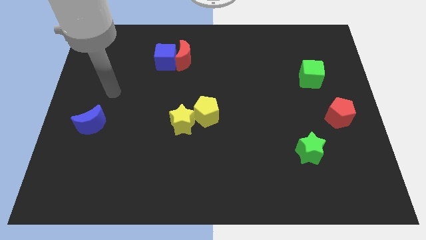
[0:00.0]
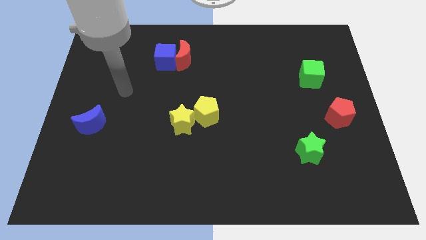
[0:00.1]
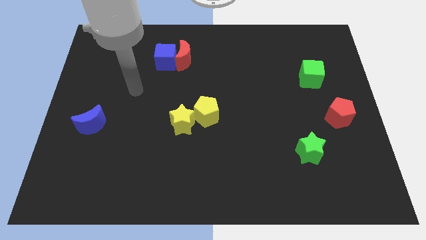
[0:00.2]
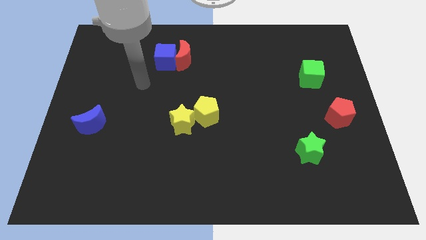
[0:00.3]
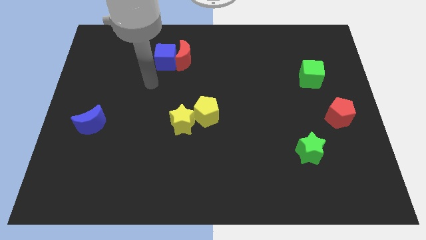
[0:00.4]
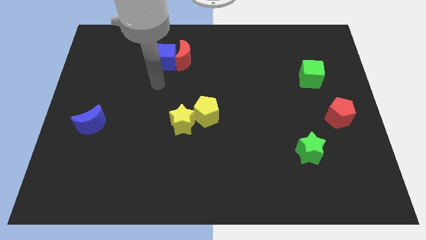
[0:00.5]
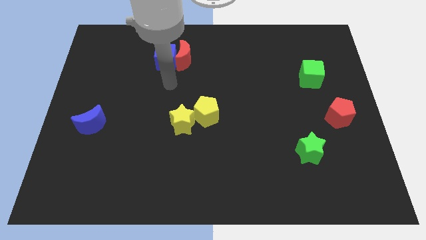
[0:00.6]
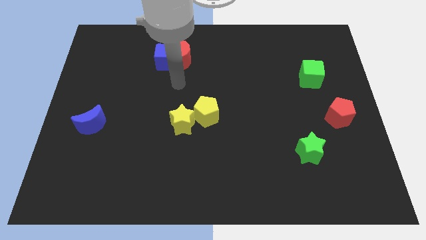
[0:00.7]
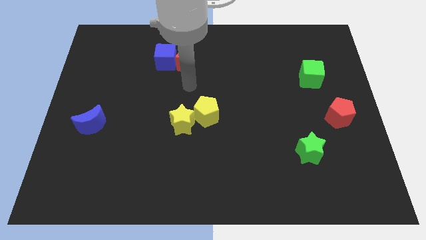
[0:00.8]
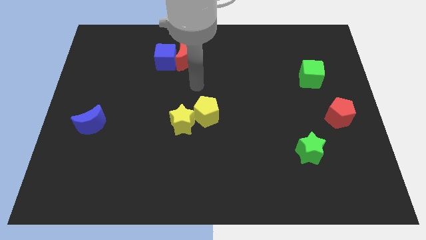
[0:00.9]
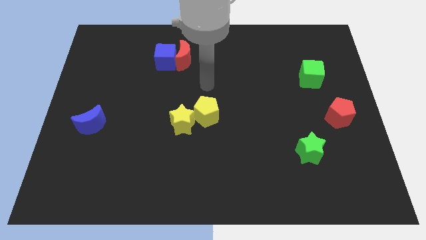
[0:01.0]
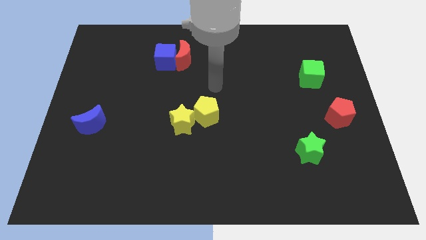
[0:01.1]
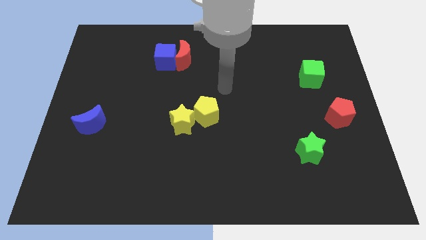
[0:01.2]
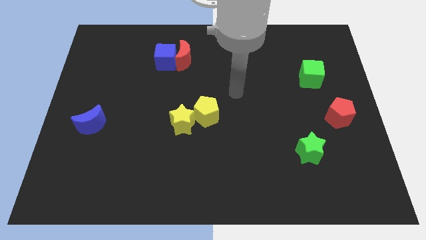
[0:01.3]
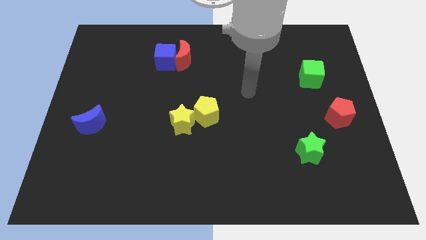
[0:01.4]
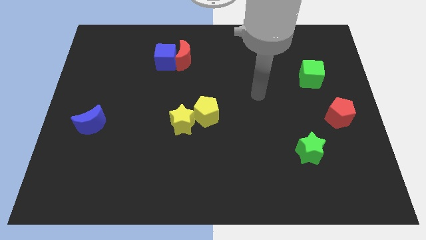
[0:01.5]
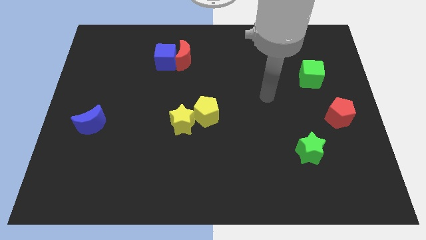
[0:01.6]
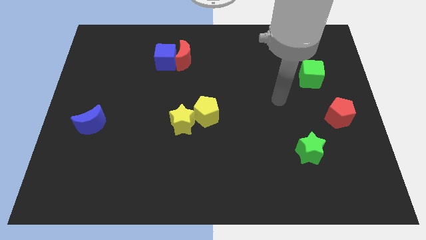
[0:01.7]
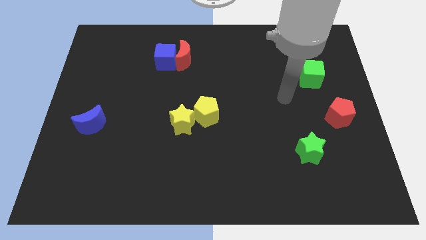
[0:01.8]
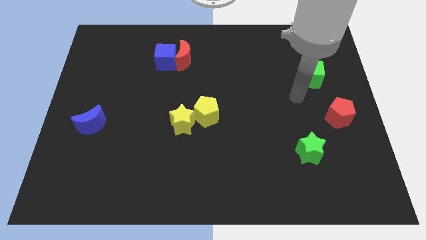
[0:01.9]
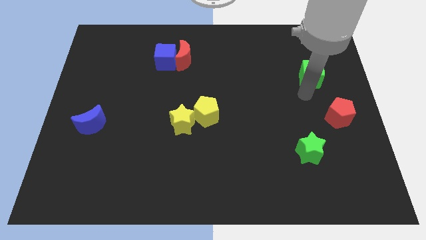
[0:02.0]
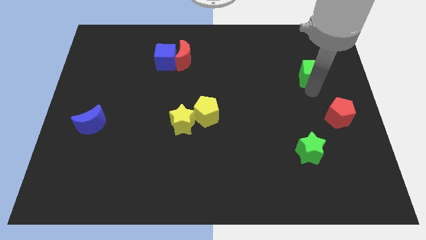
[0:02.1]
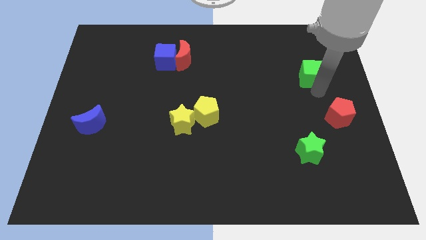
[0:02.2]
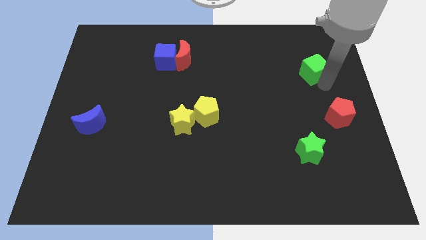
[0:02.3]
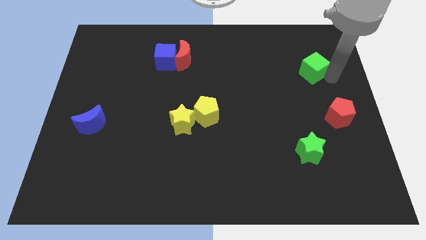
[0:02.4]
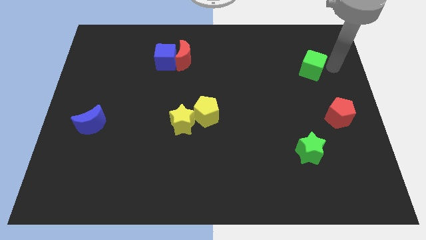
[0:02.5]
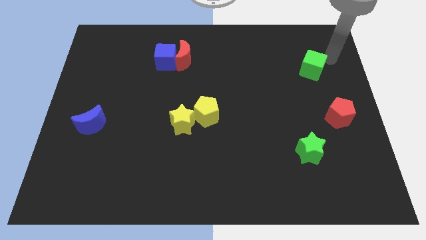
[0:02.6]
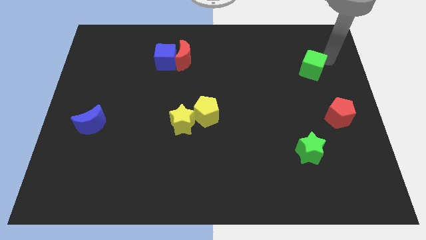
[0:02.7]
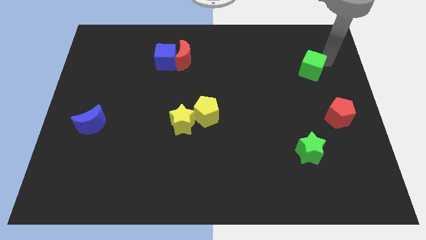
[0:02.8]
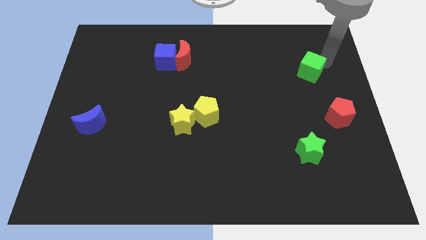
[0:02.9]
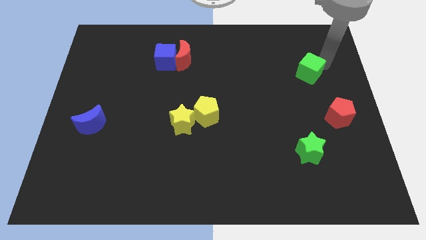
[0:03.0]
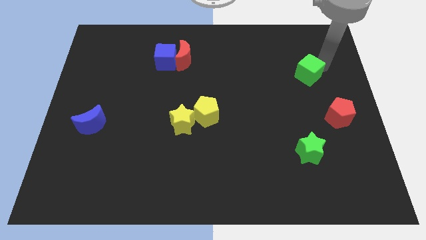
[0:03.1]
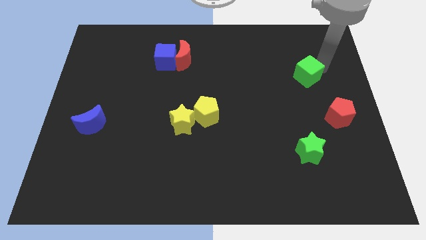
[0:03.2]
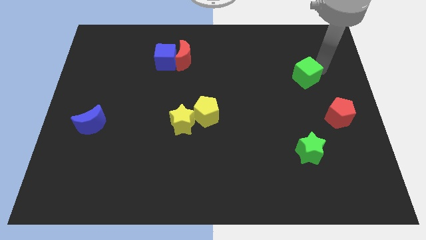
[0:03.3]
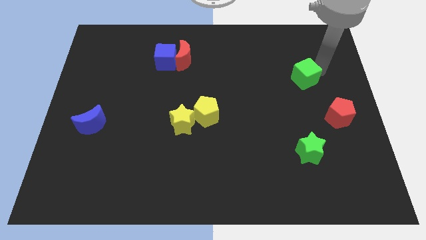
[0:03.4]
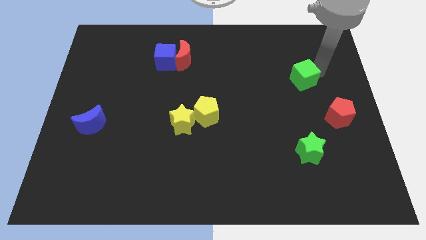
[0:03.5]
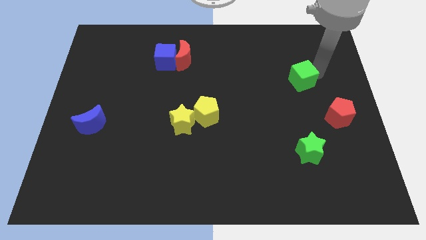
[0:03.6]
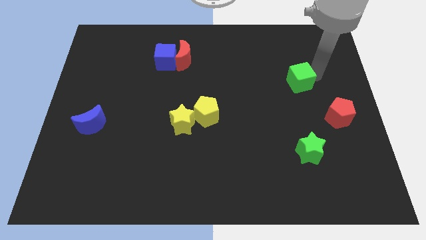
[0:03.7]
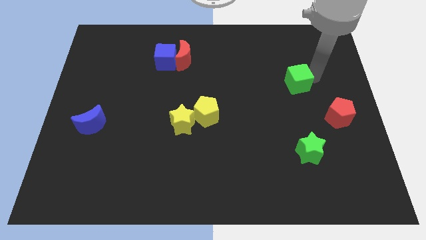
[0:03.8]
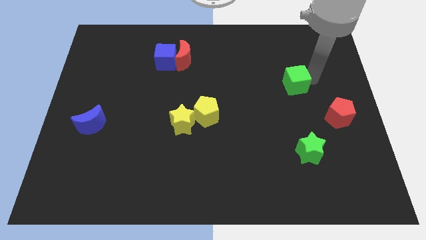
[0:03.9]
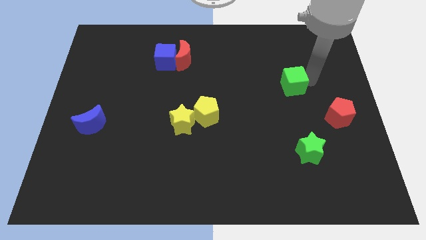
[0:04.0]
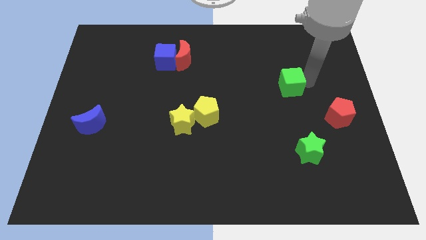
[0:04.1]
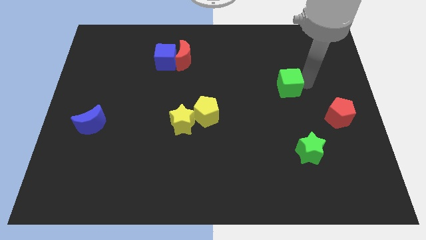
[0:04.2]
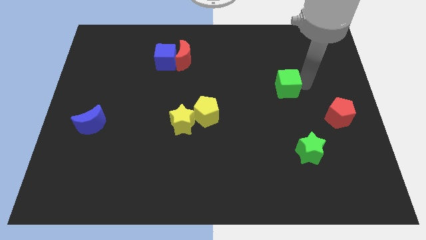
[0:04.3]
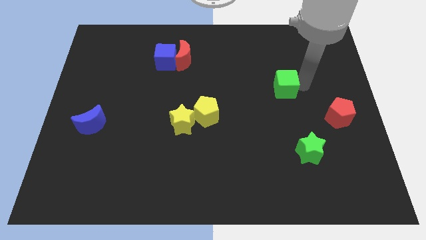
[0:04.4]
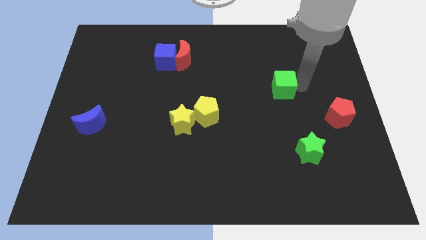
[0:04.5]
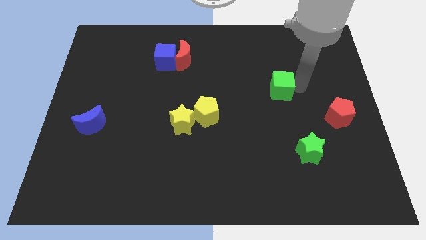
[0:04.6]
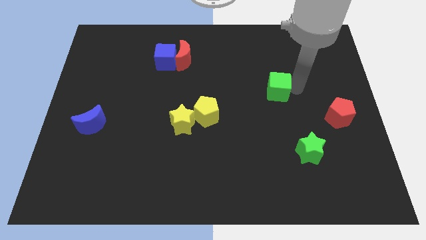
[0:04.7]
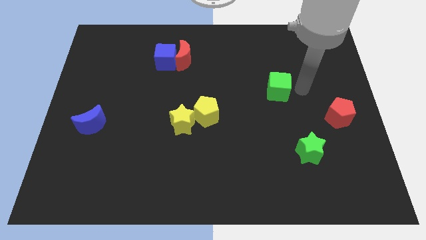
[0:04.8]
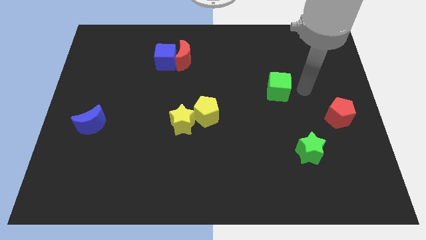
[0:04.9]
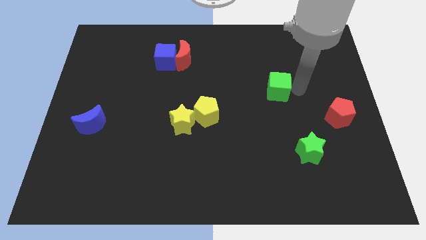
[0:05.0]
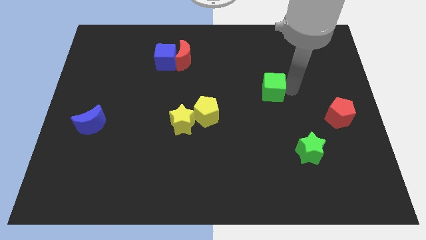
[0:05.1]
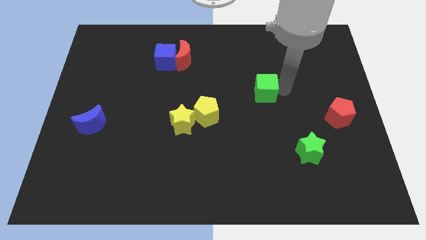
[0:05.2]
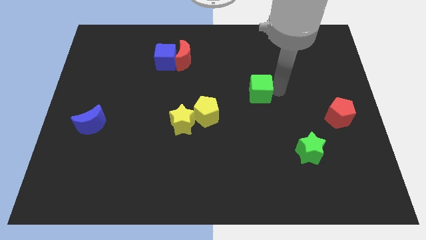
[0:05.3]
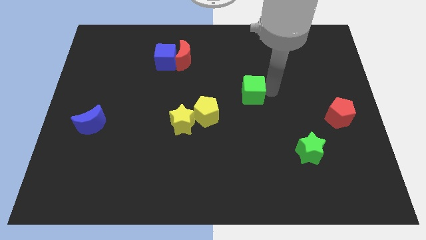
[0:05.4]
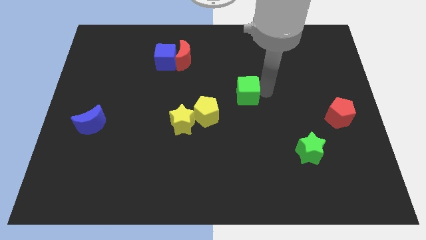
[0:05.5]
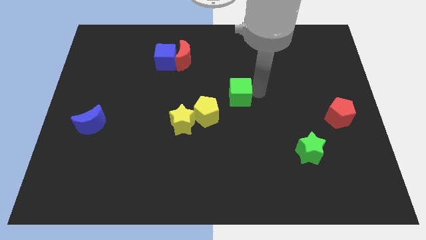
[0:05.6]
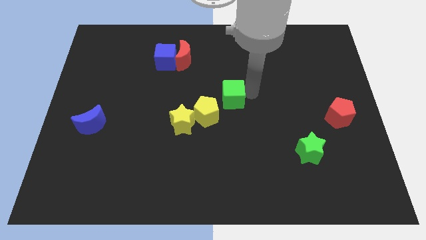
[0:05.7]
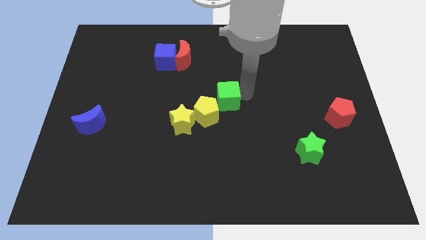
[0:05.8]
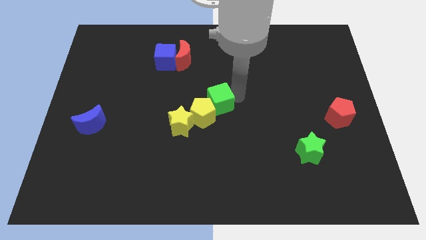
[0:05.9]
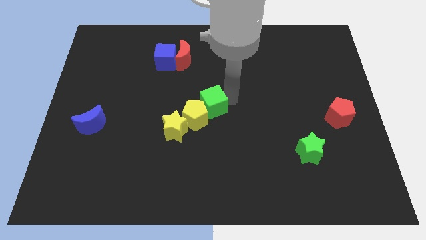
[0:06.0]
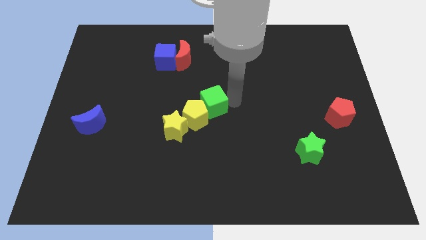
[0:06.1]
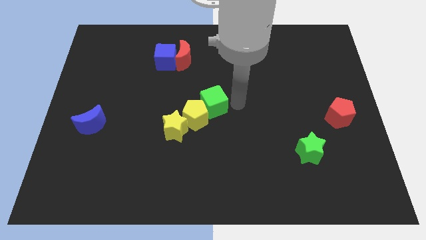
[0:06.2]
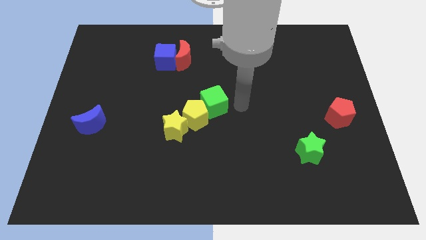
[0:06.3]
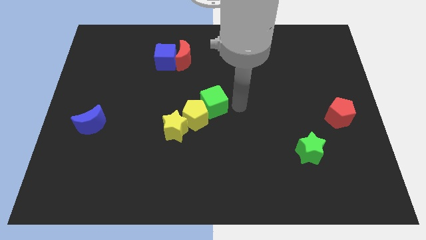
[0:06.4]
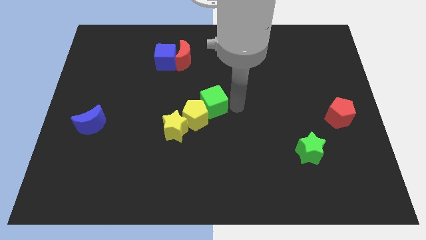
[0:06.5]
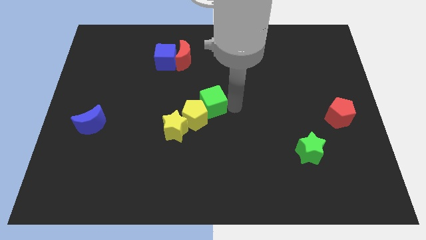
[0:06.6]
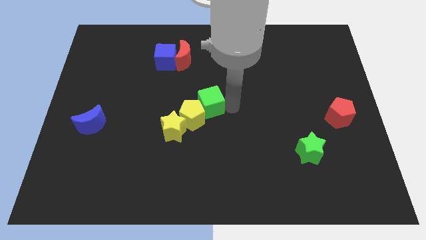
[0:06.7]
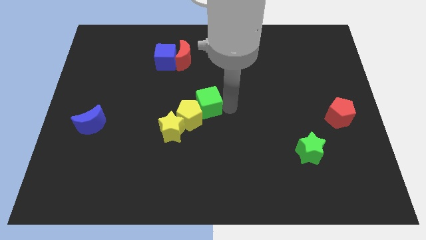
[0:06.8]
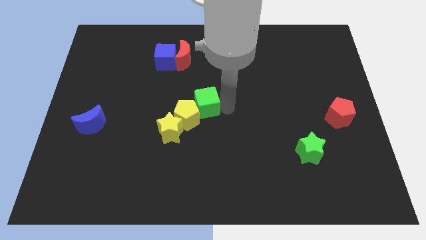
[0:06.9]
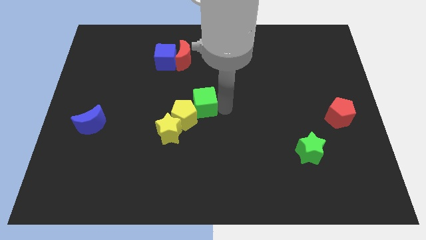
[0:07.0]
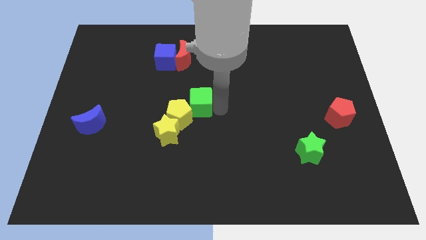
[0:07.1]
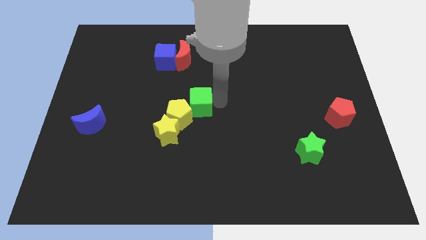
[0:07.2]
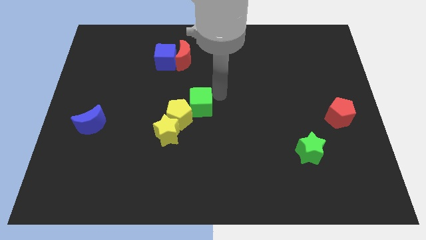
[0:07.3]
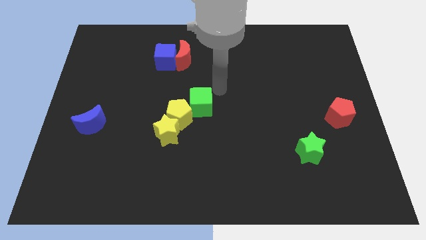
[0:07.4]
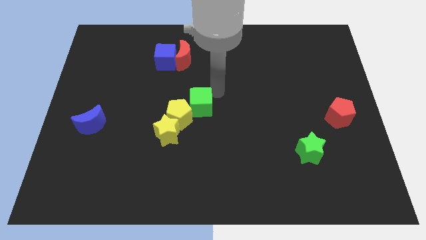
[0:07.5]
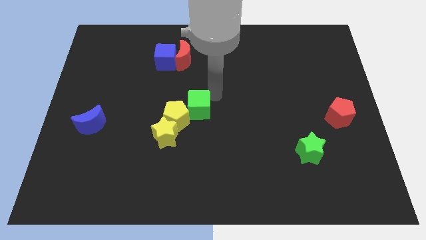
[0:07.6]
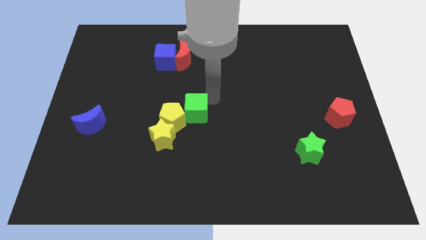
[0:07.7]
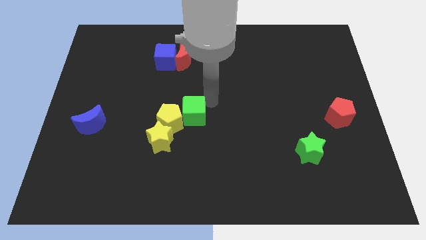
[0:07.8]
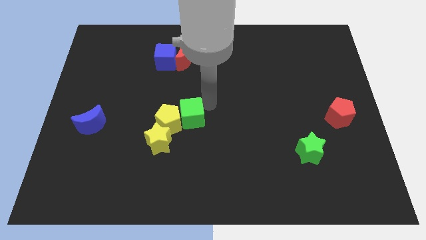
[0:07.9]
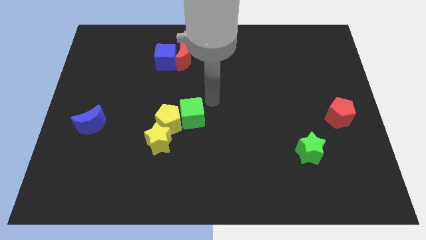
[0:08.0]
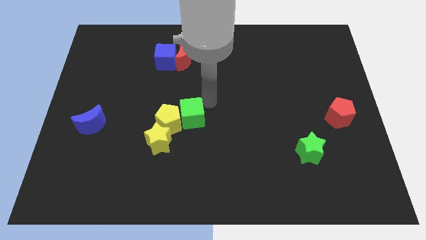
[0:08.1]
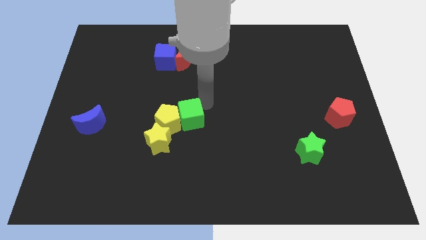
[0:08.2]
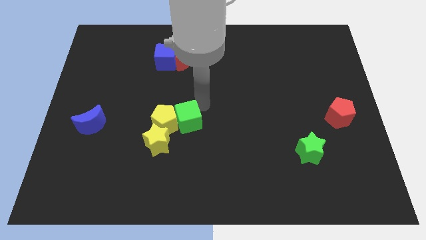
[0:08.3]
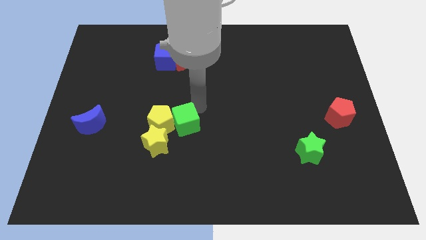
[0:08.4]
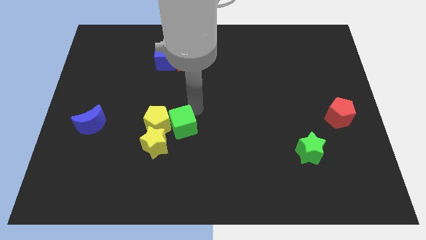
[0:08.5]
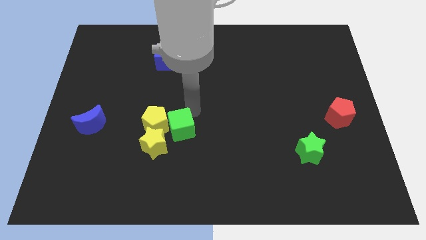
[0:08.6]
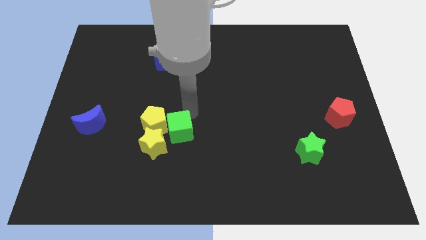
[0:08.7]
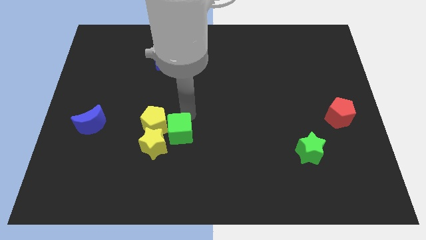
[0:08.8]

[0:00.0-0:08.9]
push the green cube next to the yellow star
